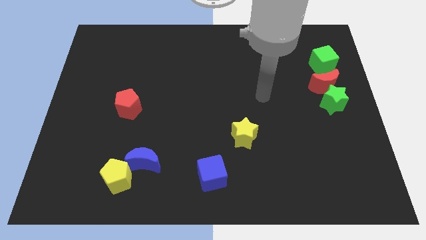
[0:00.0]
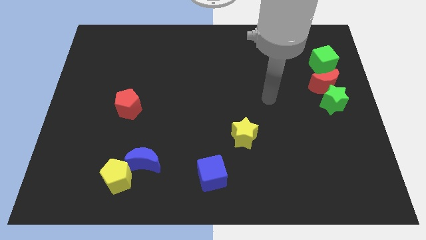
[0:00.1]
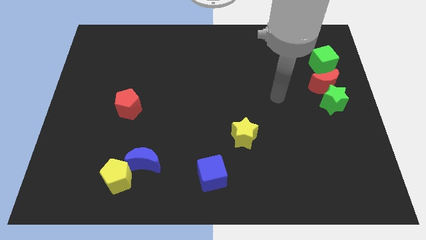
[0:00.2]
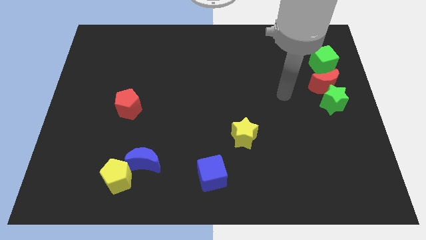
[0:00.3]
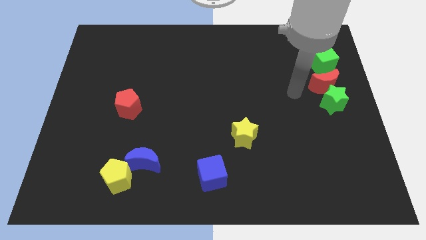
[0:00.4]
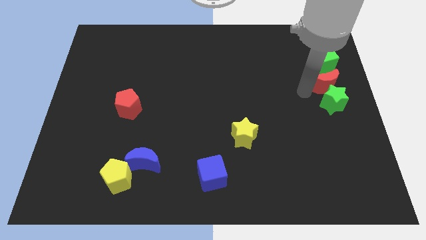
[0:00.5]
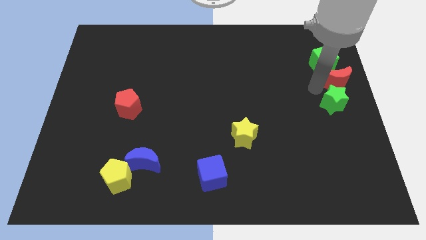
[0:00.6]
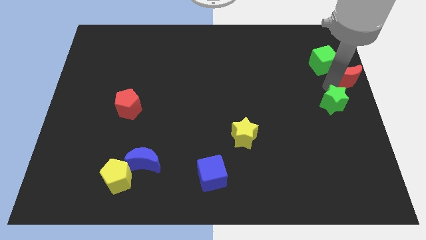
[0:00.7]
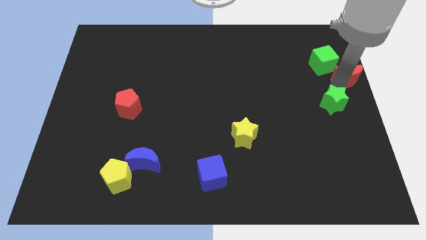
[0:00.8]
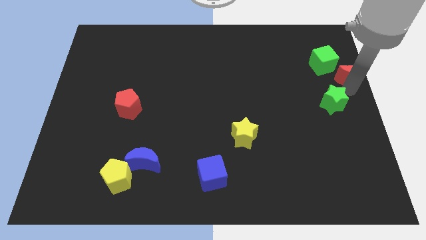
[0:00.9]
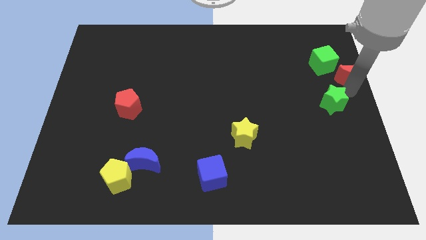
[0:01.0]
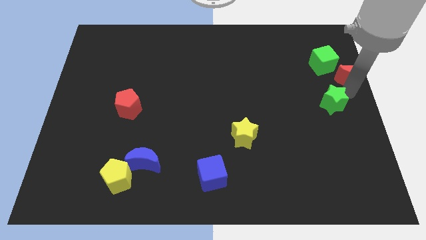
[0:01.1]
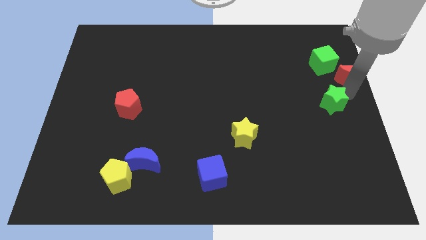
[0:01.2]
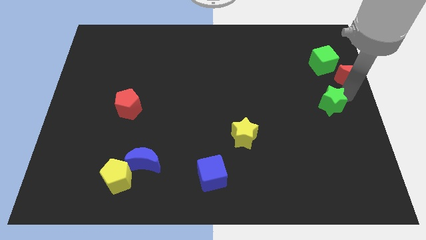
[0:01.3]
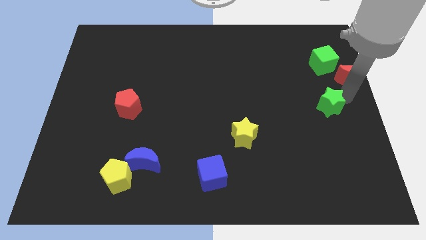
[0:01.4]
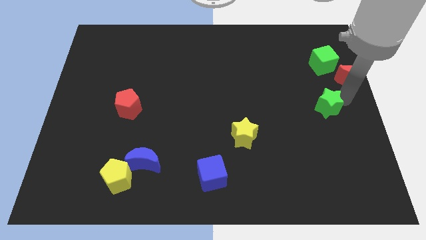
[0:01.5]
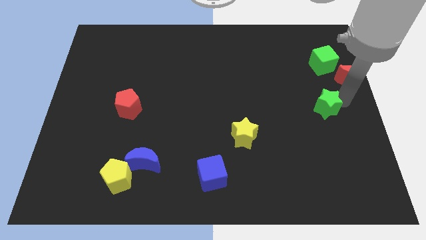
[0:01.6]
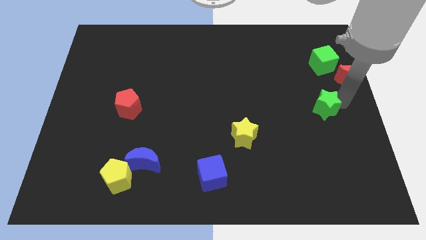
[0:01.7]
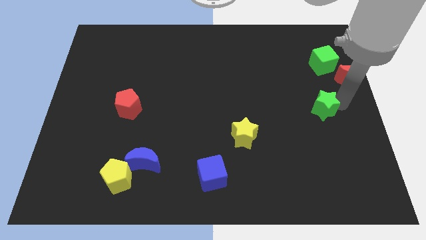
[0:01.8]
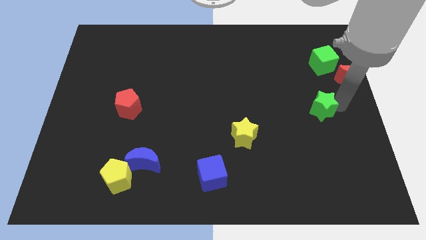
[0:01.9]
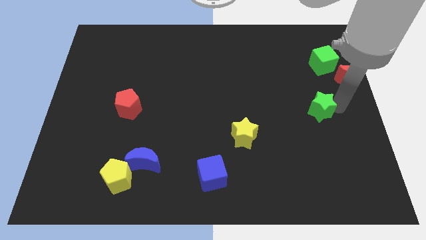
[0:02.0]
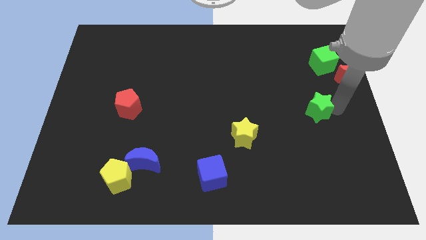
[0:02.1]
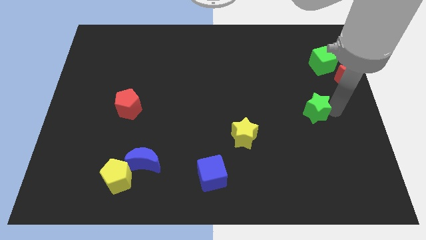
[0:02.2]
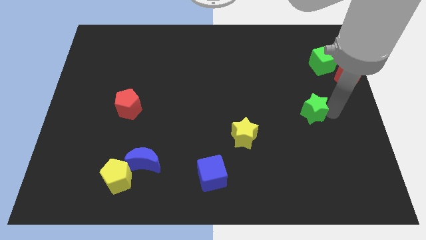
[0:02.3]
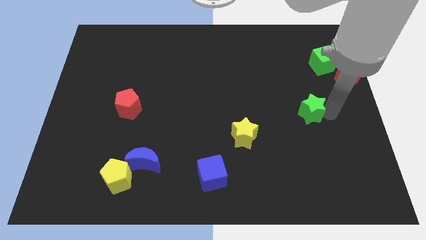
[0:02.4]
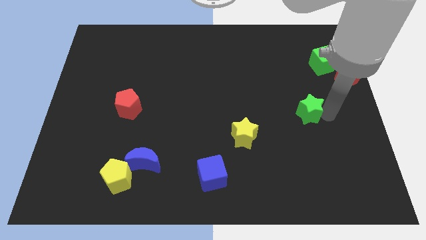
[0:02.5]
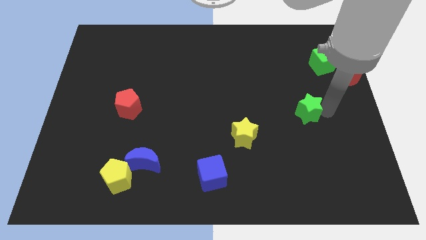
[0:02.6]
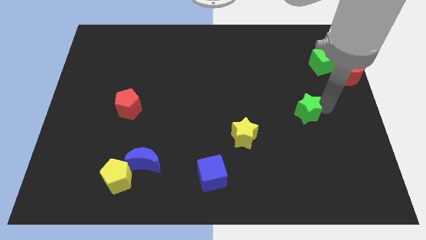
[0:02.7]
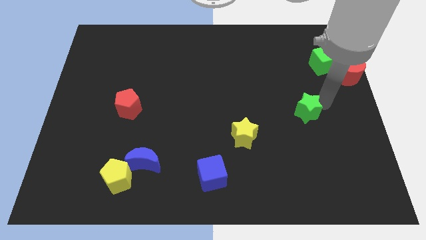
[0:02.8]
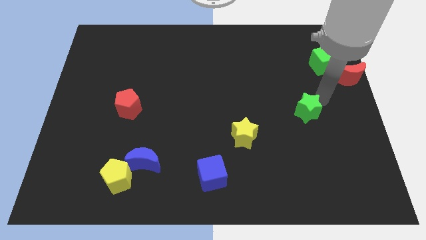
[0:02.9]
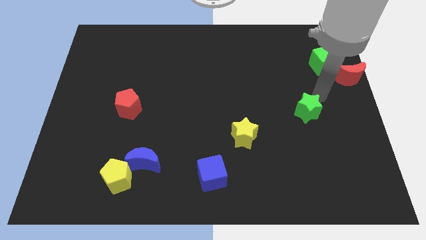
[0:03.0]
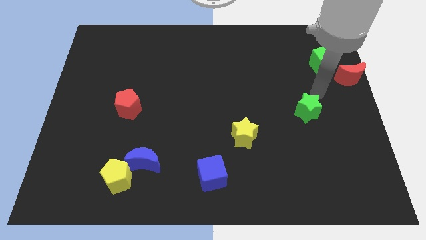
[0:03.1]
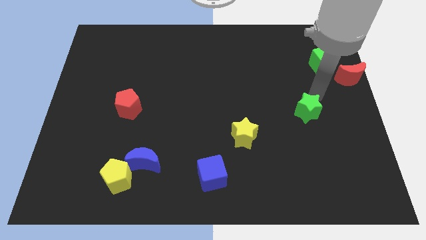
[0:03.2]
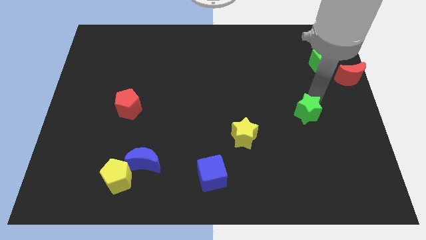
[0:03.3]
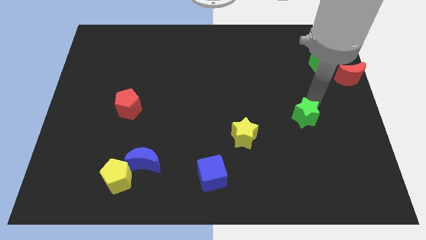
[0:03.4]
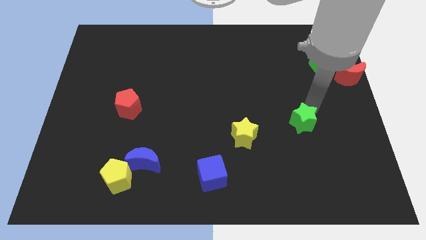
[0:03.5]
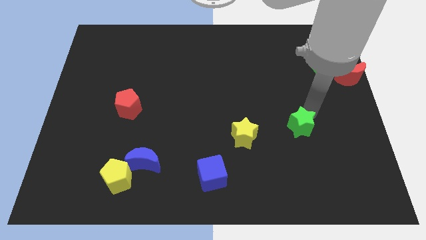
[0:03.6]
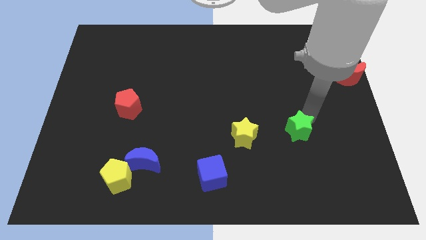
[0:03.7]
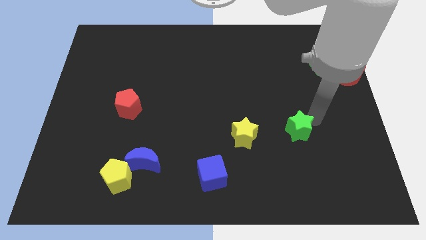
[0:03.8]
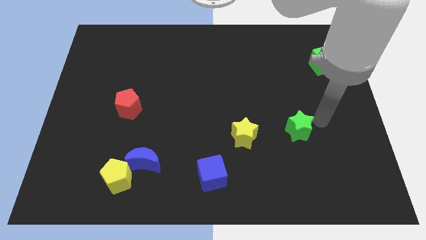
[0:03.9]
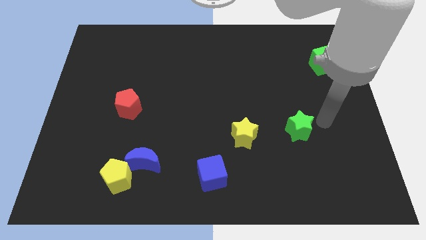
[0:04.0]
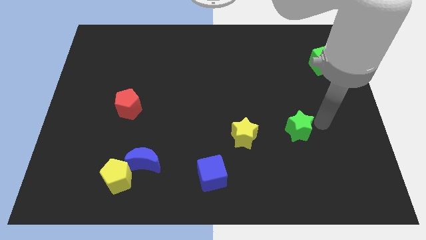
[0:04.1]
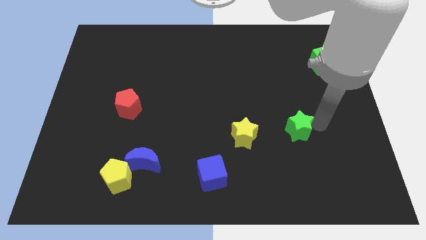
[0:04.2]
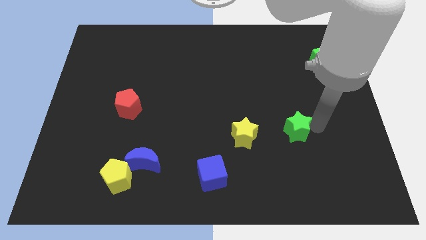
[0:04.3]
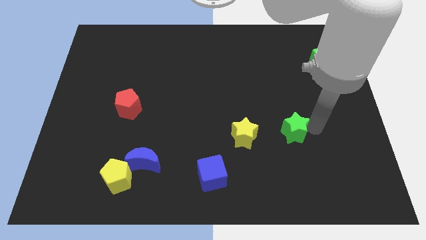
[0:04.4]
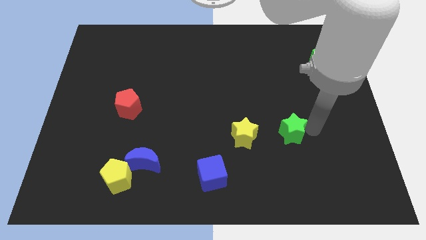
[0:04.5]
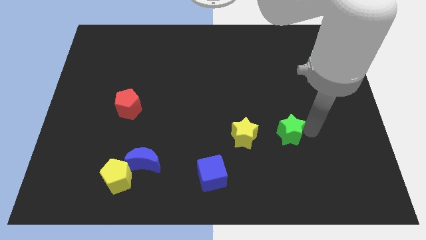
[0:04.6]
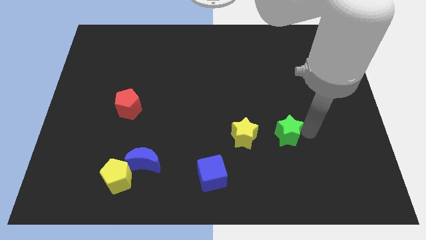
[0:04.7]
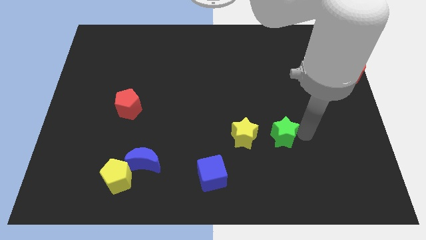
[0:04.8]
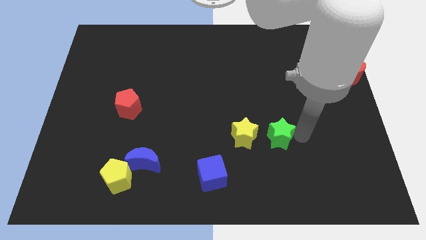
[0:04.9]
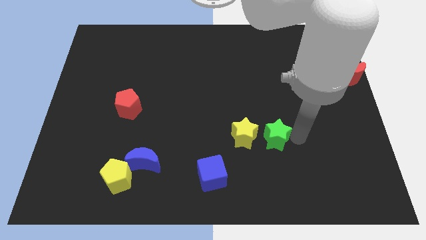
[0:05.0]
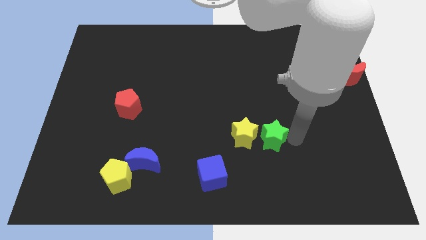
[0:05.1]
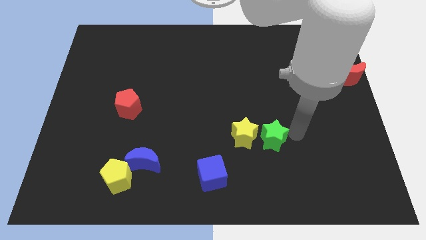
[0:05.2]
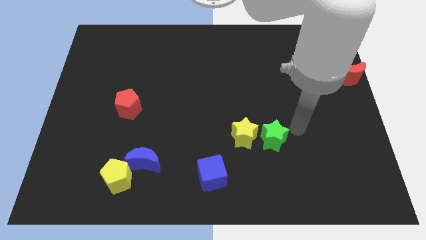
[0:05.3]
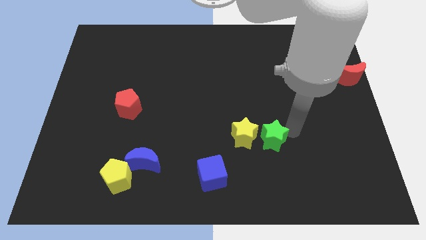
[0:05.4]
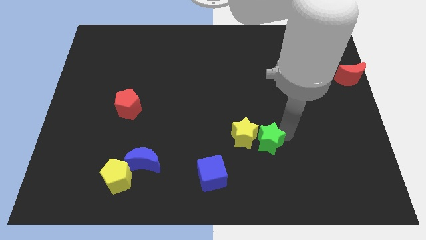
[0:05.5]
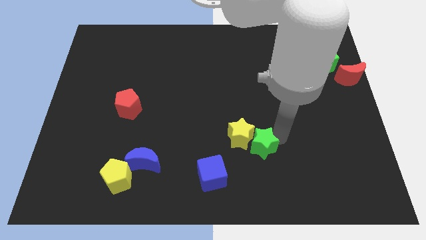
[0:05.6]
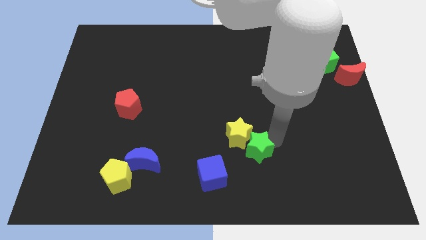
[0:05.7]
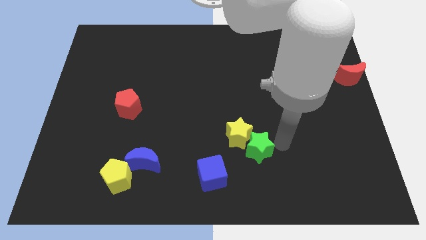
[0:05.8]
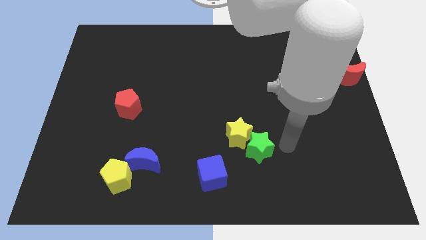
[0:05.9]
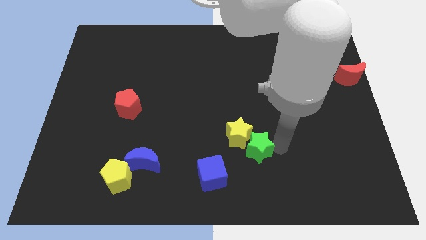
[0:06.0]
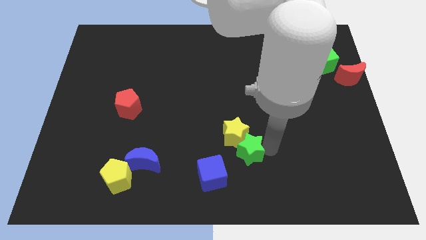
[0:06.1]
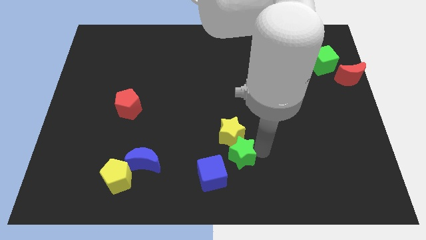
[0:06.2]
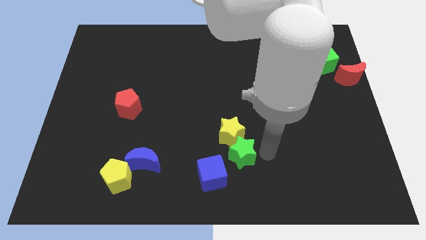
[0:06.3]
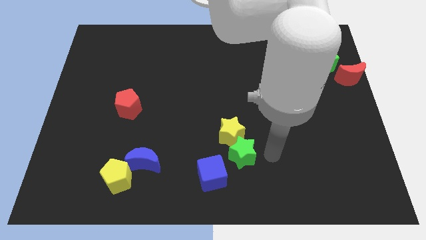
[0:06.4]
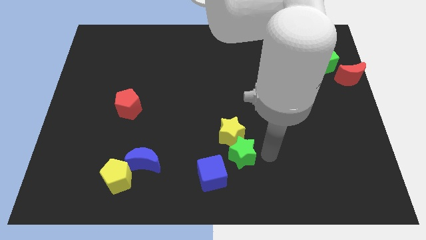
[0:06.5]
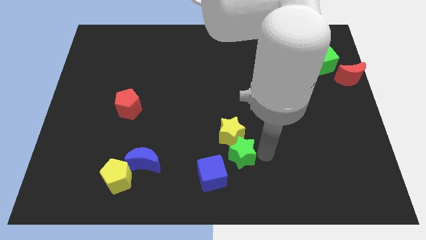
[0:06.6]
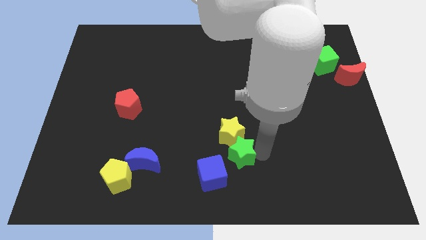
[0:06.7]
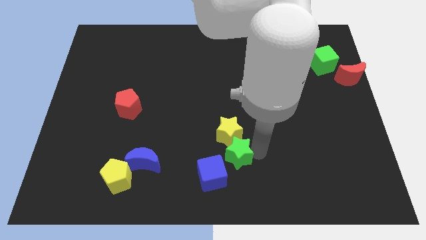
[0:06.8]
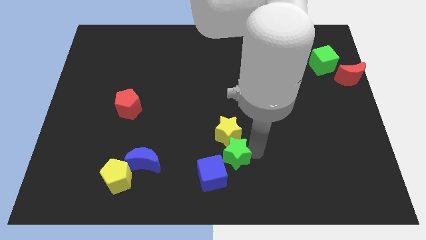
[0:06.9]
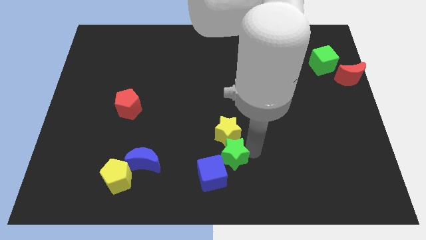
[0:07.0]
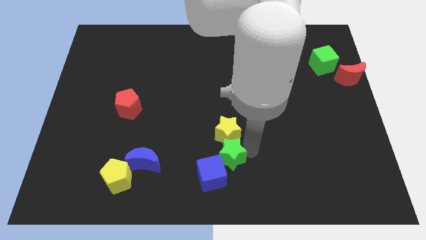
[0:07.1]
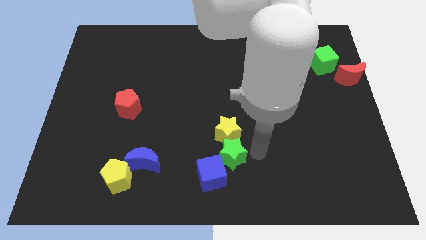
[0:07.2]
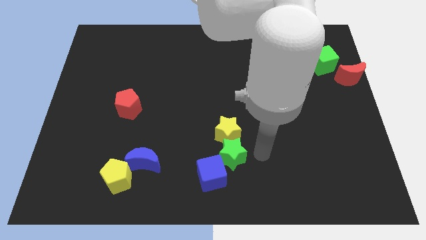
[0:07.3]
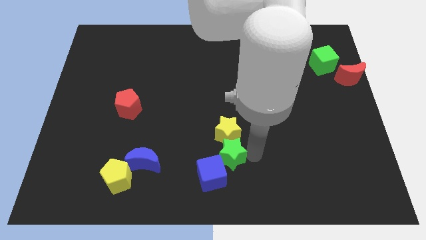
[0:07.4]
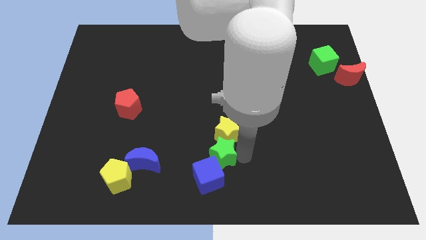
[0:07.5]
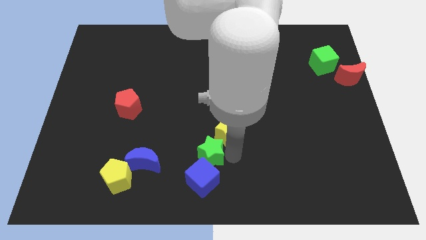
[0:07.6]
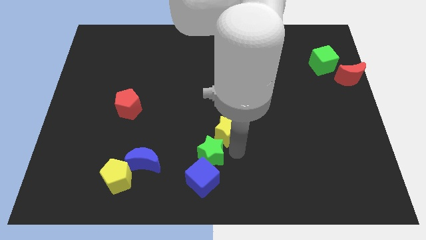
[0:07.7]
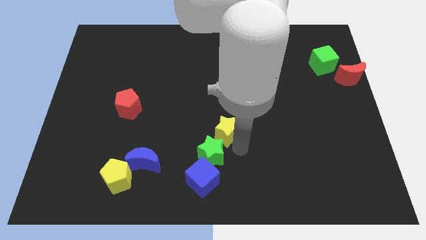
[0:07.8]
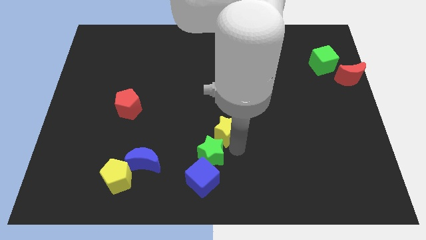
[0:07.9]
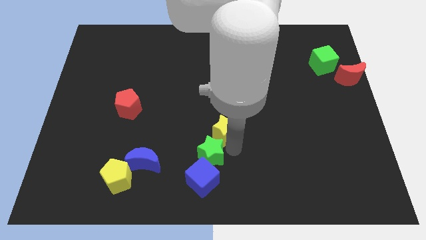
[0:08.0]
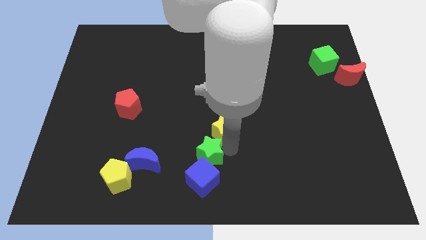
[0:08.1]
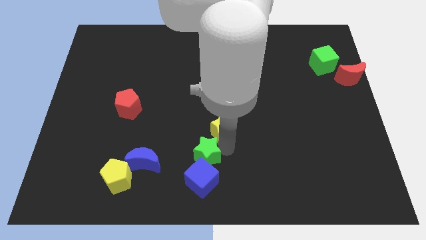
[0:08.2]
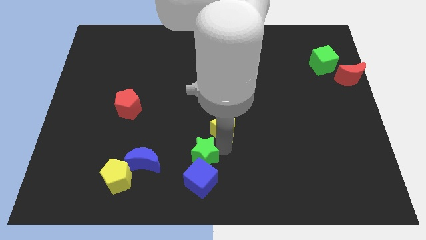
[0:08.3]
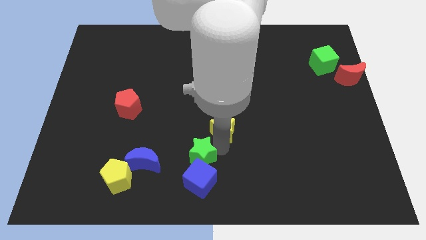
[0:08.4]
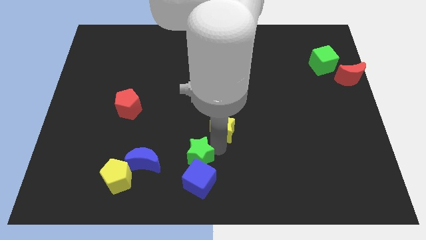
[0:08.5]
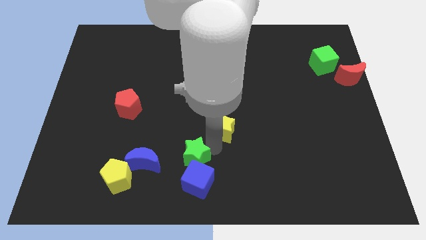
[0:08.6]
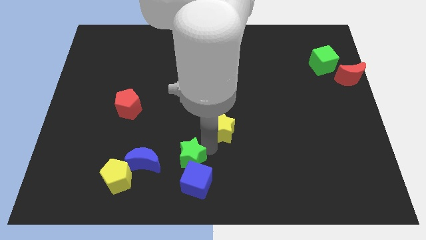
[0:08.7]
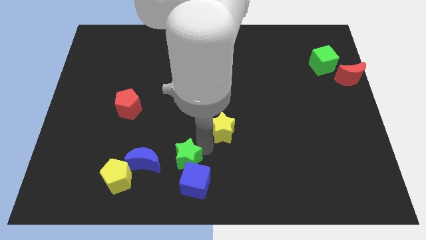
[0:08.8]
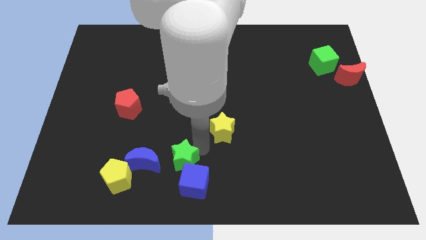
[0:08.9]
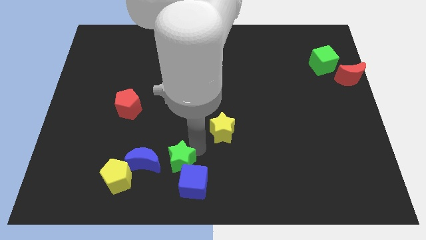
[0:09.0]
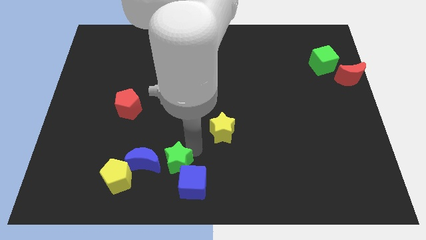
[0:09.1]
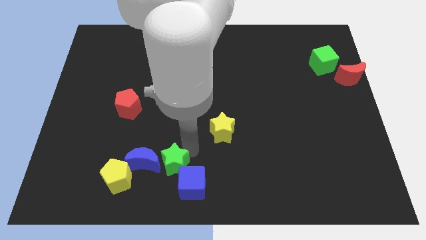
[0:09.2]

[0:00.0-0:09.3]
move the green star diagonally down and to the right of the blue moon
